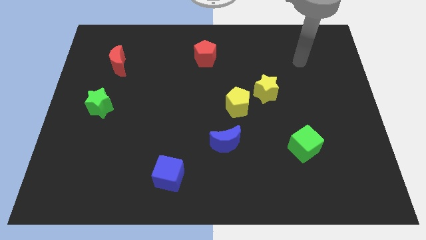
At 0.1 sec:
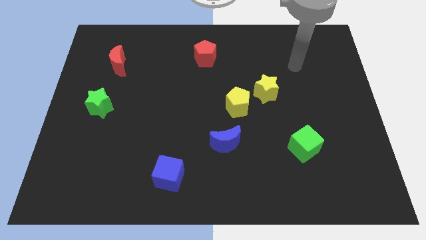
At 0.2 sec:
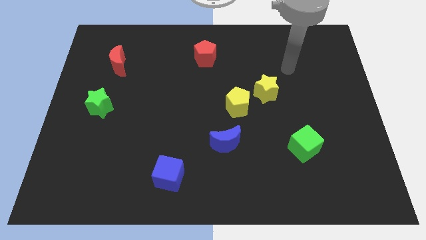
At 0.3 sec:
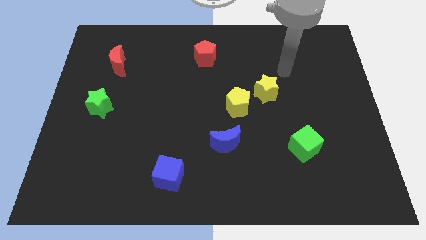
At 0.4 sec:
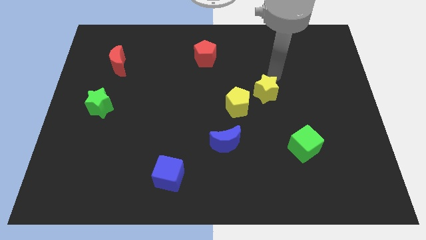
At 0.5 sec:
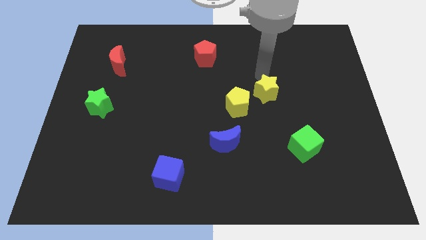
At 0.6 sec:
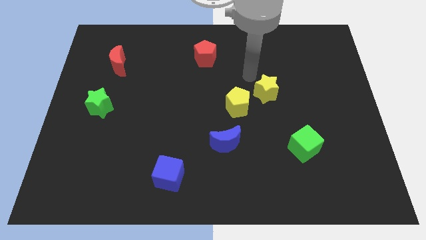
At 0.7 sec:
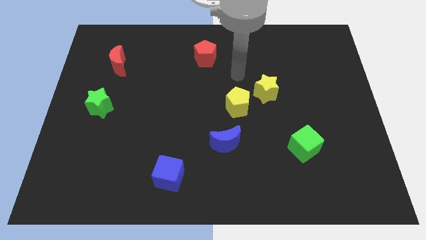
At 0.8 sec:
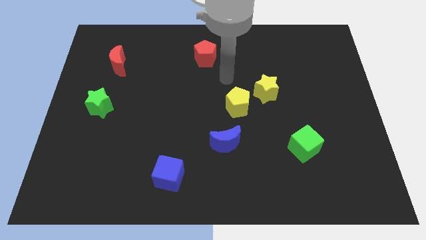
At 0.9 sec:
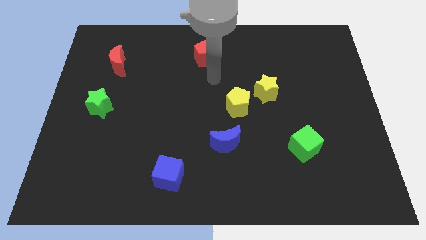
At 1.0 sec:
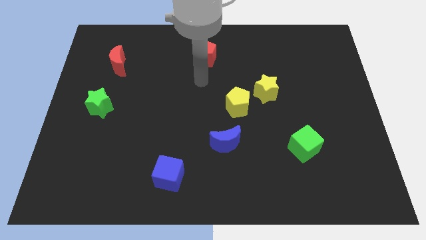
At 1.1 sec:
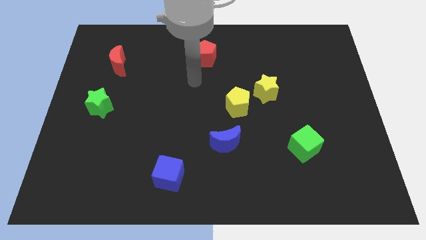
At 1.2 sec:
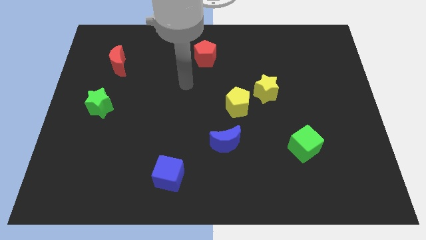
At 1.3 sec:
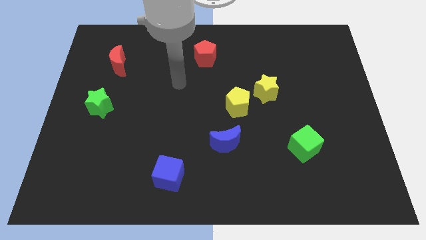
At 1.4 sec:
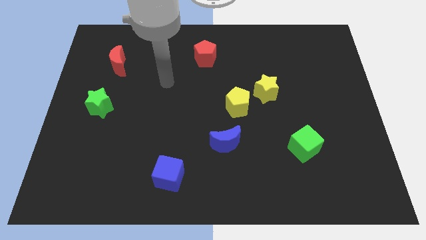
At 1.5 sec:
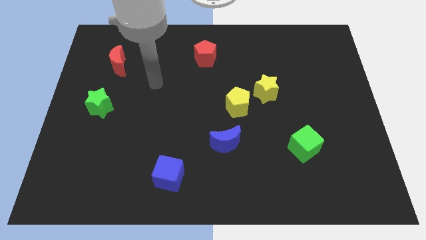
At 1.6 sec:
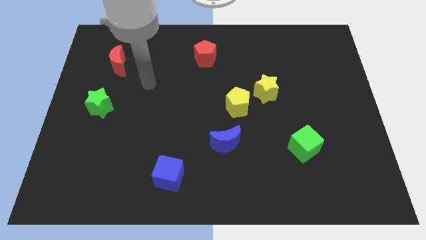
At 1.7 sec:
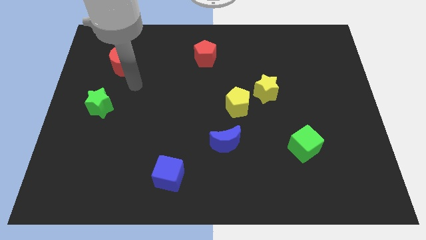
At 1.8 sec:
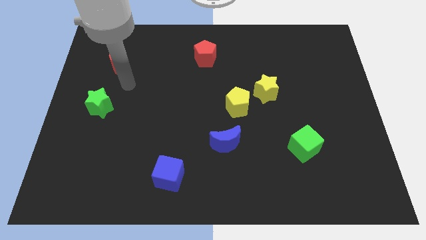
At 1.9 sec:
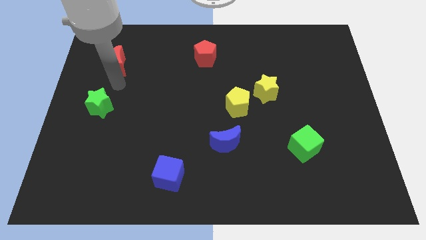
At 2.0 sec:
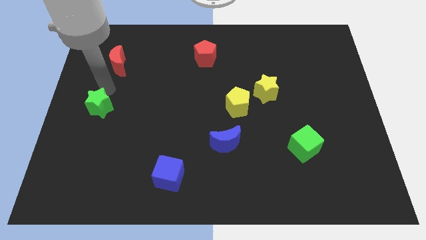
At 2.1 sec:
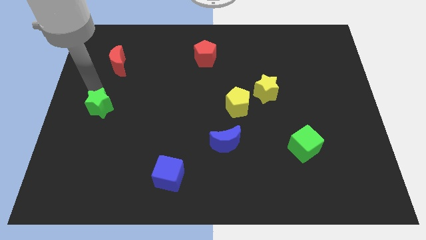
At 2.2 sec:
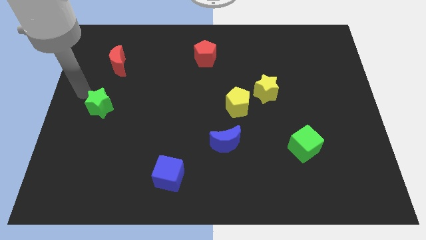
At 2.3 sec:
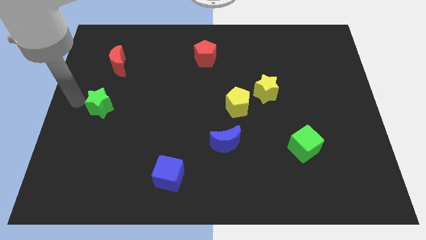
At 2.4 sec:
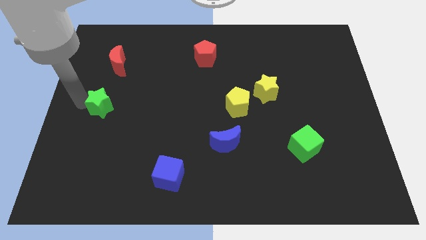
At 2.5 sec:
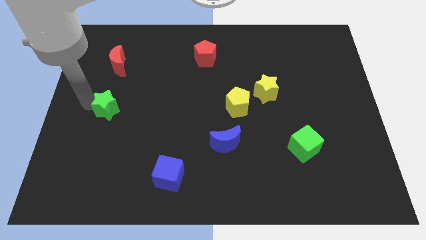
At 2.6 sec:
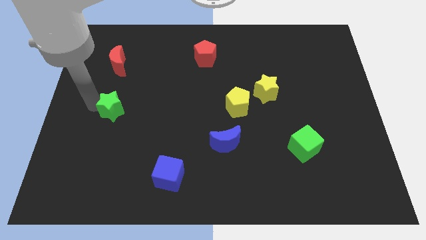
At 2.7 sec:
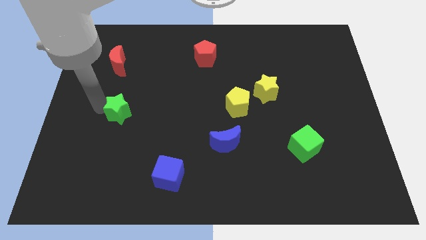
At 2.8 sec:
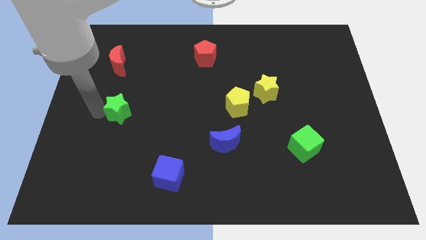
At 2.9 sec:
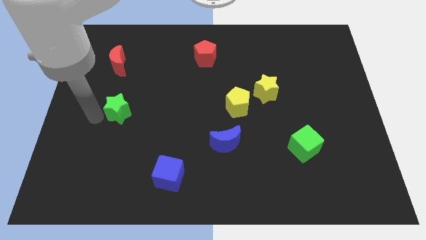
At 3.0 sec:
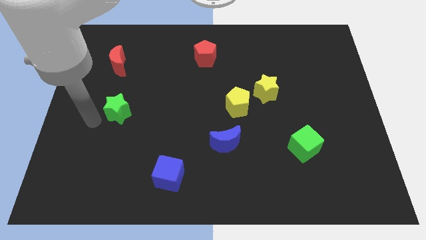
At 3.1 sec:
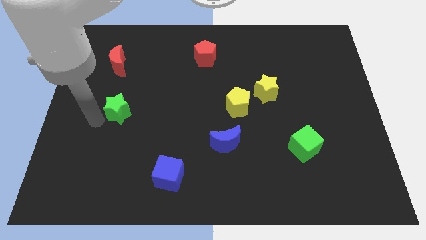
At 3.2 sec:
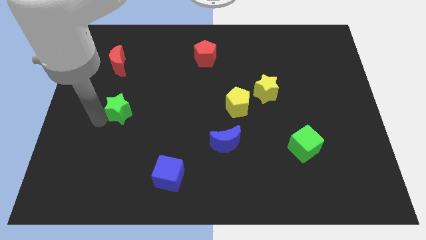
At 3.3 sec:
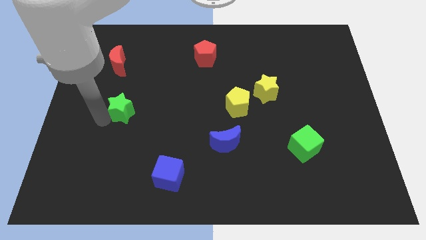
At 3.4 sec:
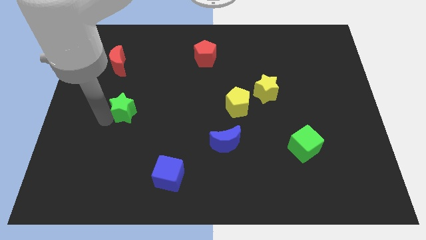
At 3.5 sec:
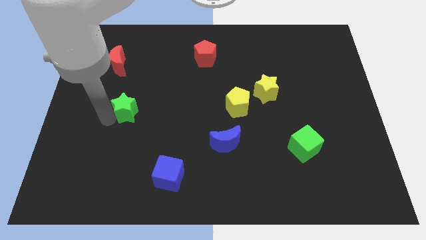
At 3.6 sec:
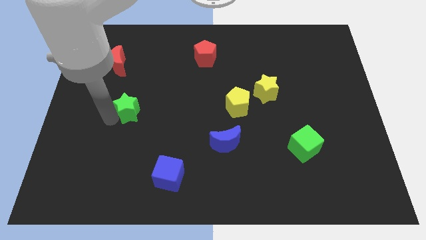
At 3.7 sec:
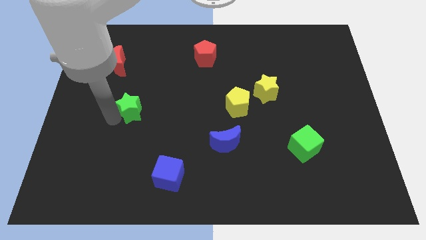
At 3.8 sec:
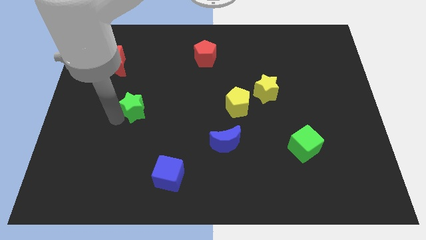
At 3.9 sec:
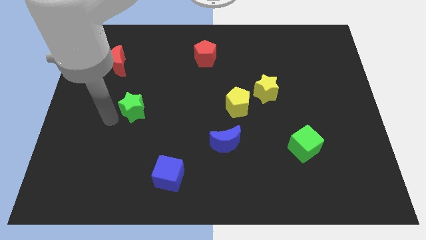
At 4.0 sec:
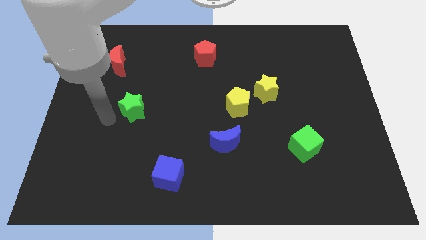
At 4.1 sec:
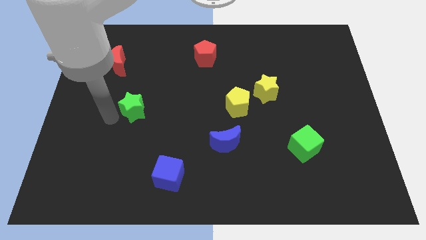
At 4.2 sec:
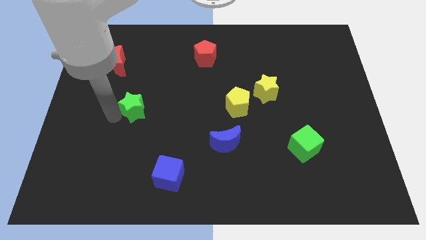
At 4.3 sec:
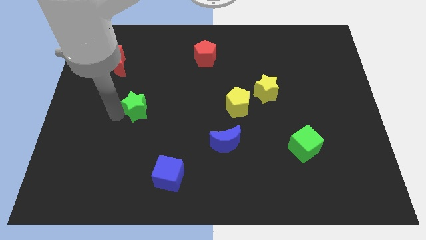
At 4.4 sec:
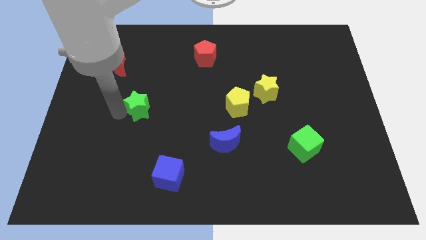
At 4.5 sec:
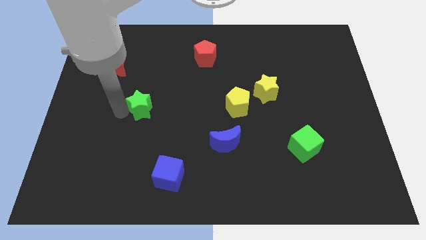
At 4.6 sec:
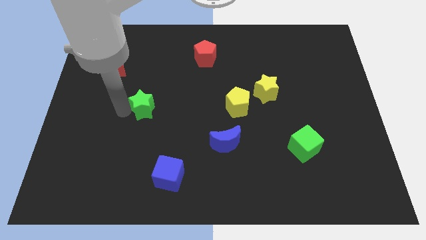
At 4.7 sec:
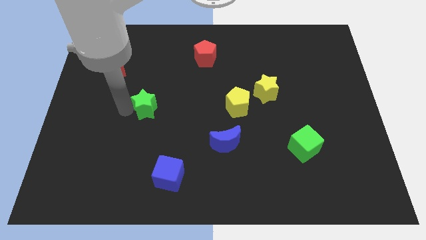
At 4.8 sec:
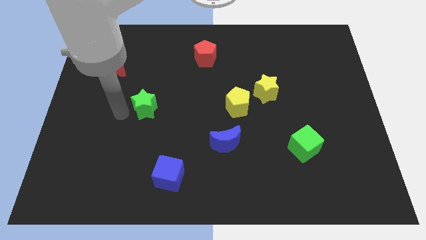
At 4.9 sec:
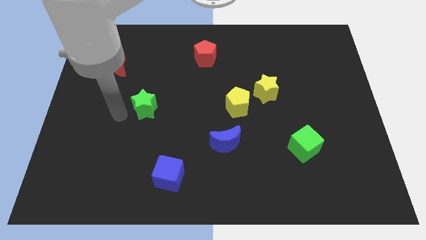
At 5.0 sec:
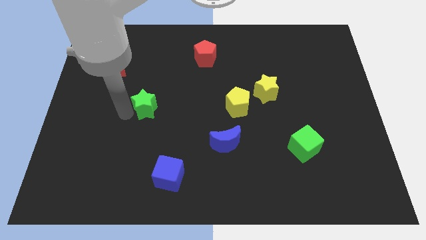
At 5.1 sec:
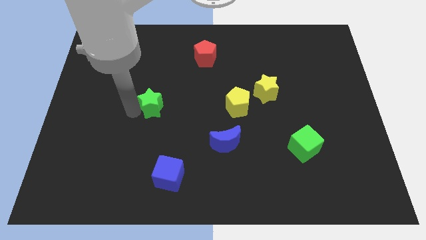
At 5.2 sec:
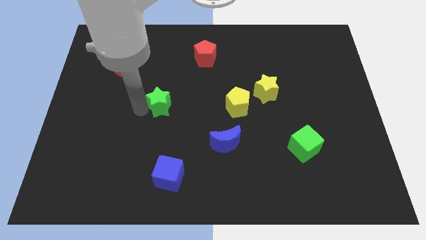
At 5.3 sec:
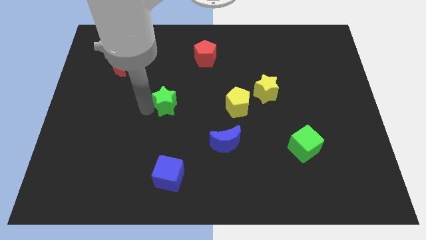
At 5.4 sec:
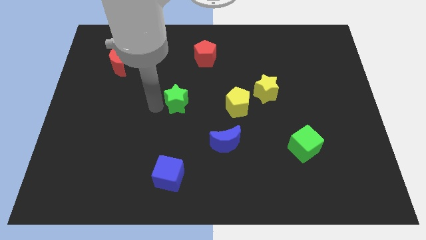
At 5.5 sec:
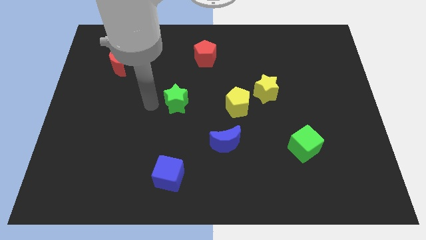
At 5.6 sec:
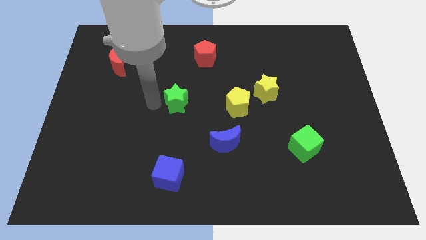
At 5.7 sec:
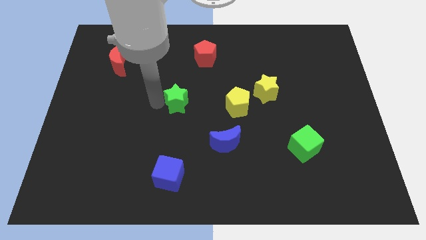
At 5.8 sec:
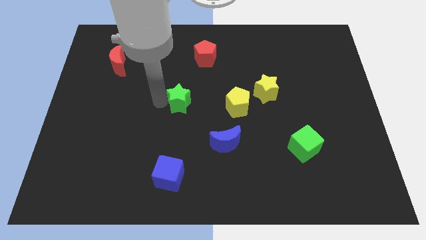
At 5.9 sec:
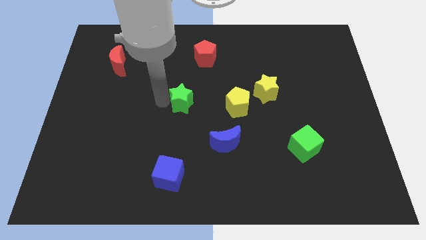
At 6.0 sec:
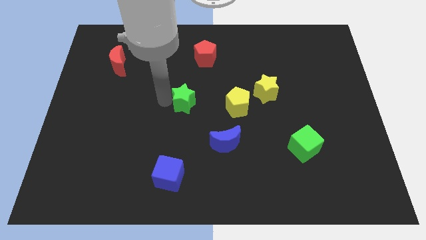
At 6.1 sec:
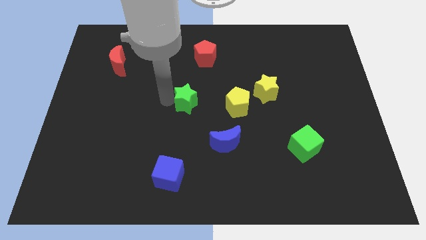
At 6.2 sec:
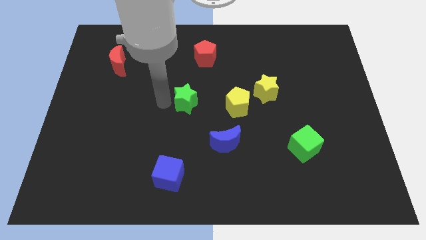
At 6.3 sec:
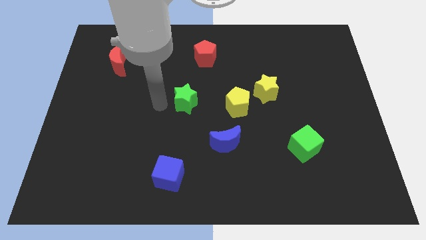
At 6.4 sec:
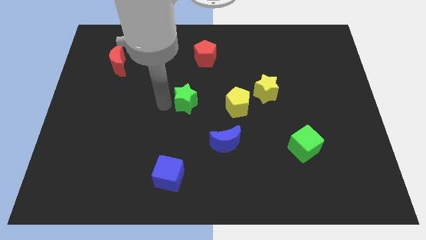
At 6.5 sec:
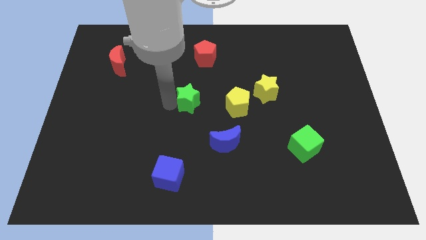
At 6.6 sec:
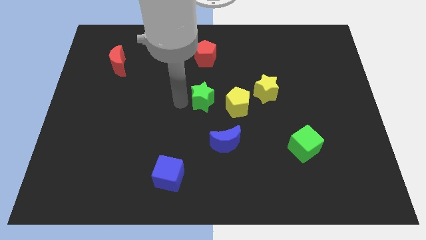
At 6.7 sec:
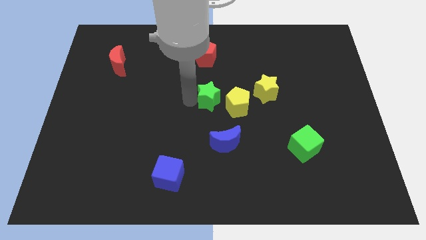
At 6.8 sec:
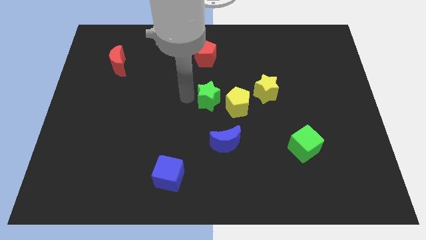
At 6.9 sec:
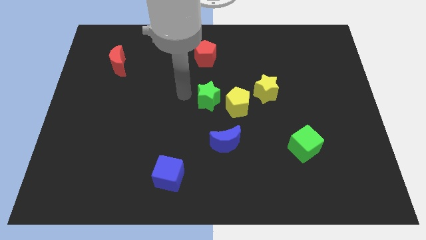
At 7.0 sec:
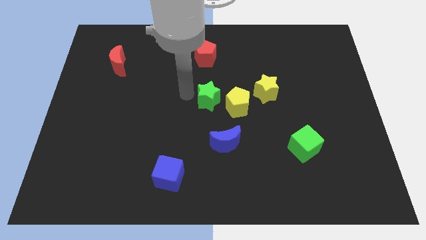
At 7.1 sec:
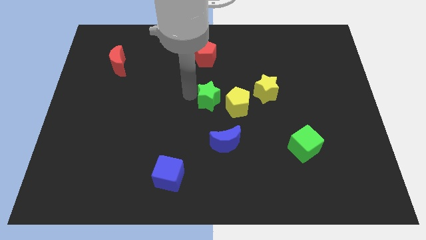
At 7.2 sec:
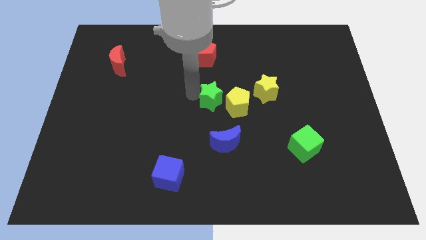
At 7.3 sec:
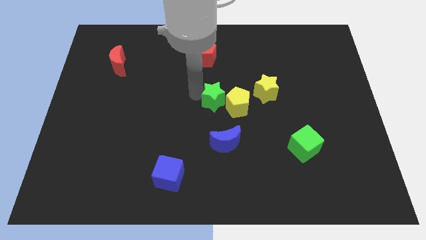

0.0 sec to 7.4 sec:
slide the green star towards the yellow pentagon

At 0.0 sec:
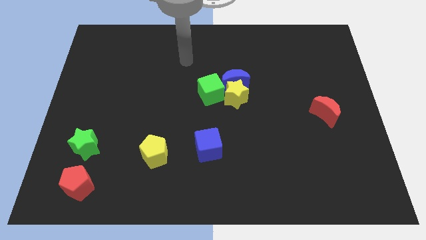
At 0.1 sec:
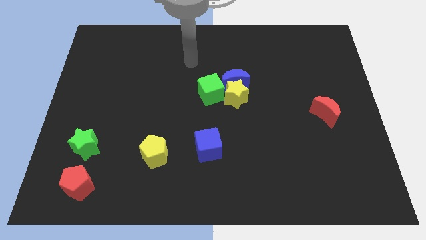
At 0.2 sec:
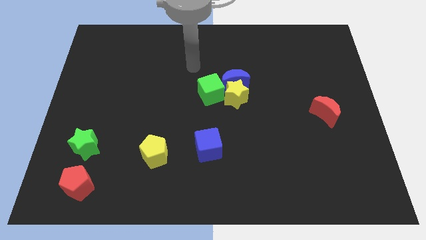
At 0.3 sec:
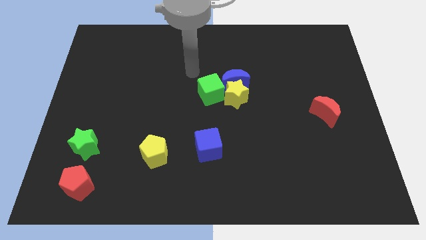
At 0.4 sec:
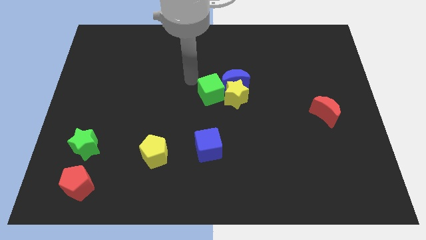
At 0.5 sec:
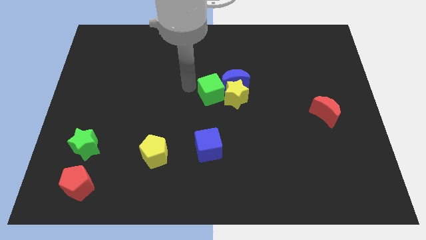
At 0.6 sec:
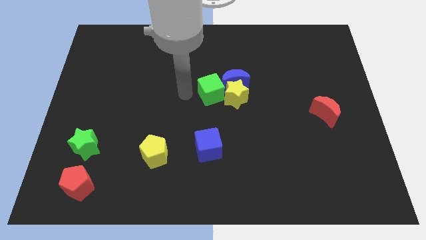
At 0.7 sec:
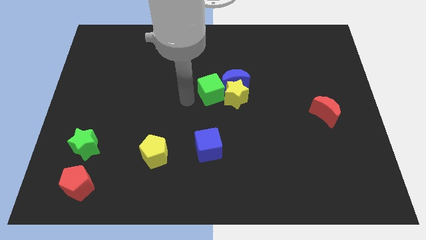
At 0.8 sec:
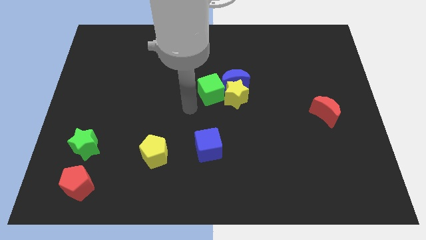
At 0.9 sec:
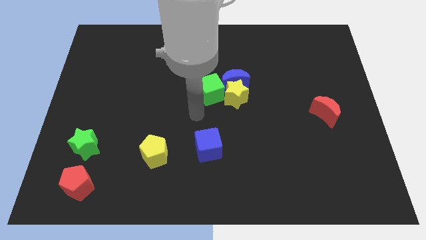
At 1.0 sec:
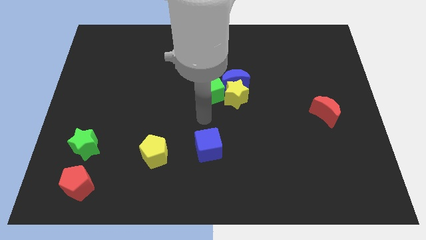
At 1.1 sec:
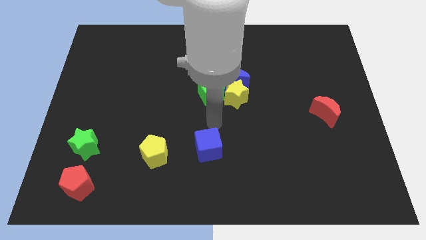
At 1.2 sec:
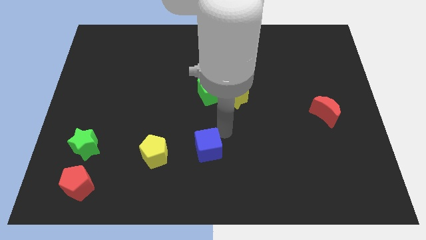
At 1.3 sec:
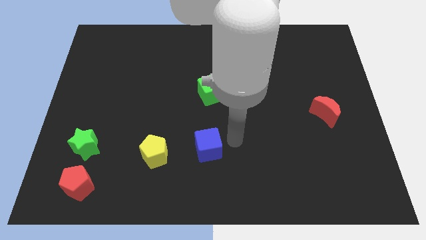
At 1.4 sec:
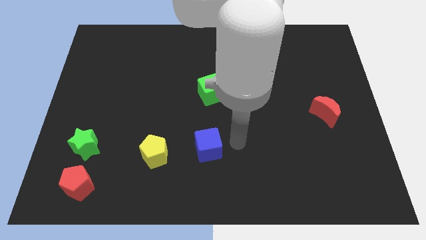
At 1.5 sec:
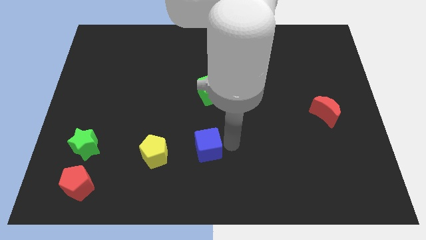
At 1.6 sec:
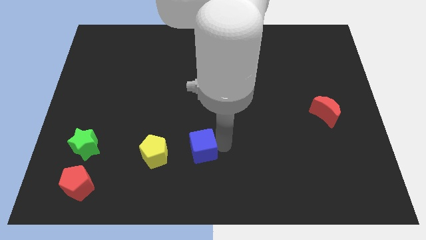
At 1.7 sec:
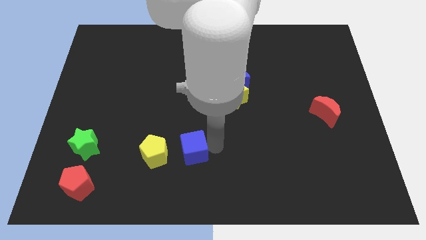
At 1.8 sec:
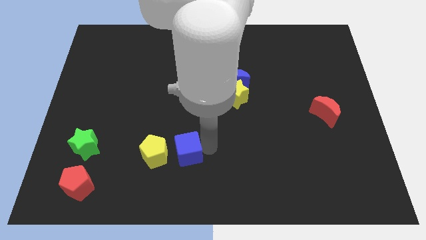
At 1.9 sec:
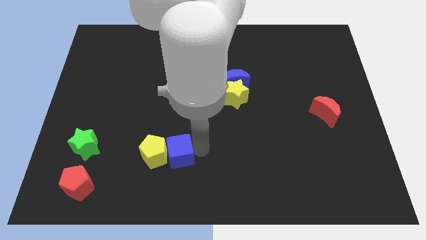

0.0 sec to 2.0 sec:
put the blue cube close to the yellow pentagon
